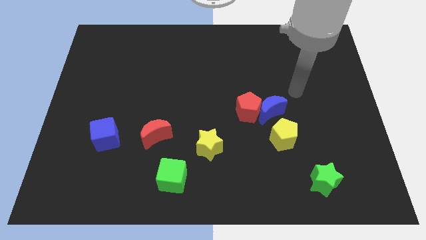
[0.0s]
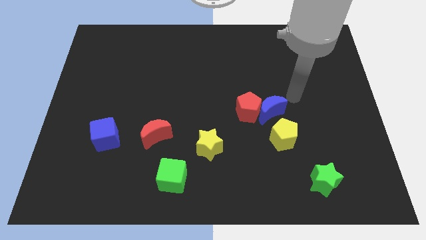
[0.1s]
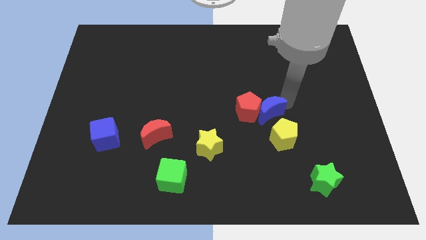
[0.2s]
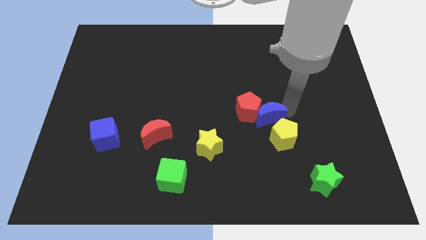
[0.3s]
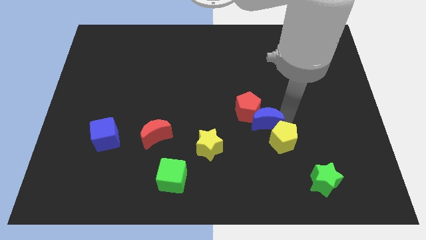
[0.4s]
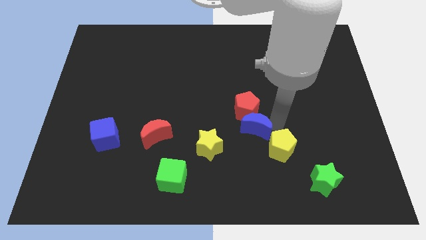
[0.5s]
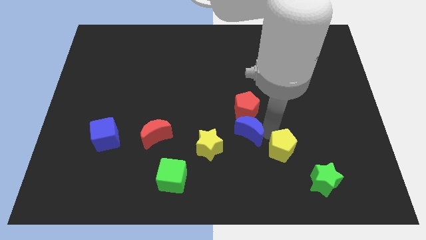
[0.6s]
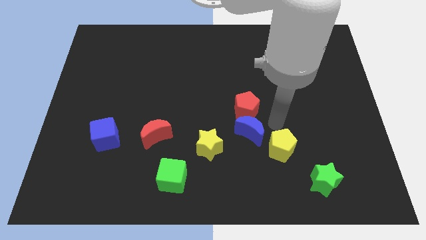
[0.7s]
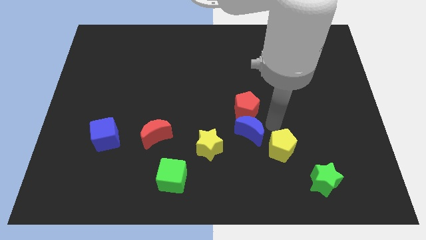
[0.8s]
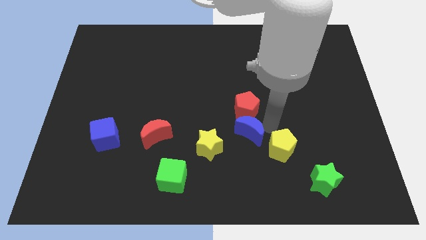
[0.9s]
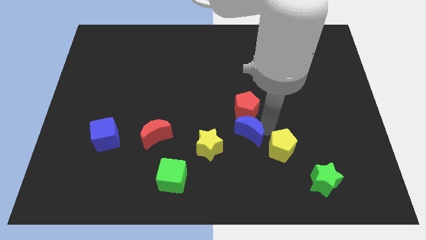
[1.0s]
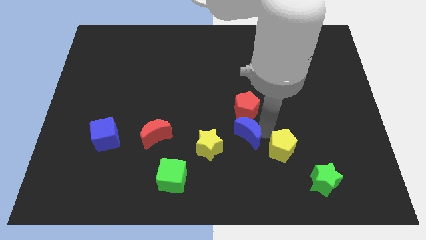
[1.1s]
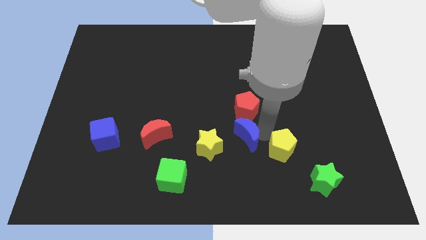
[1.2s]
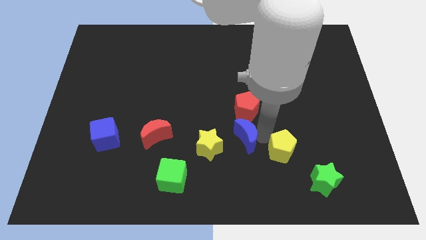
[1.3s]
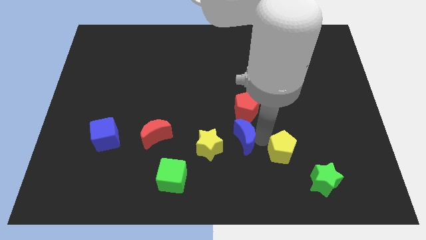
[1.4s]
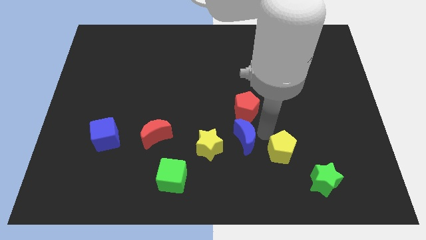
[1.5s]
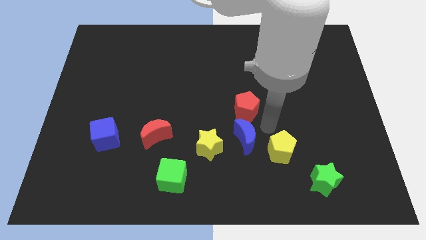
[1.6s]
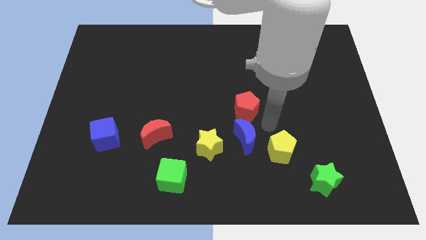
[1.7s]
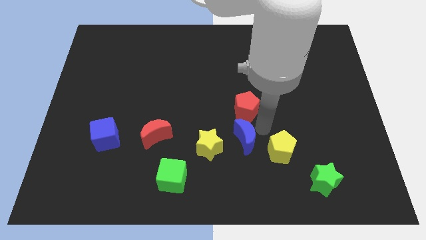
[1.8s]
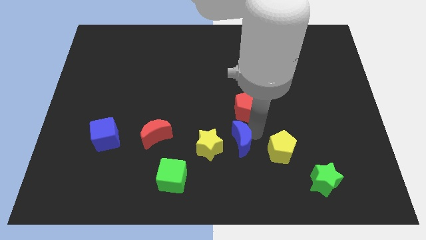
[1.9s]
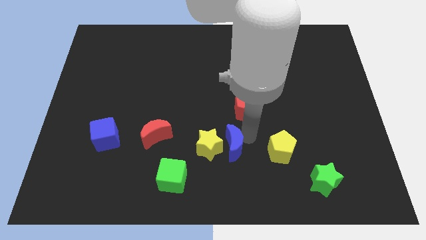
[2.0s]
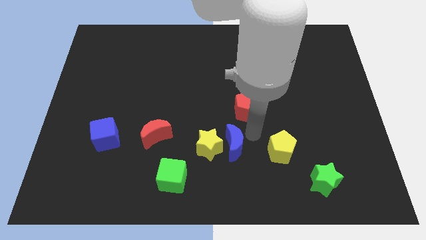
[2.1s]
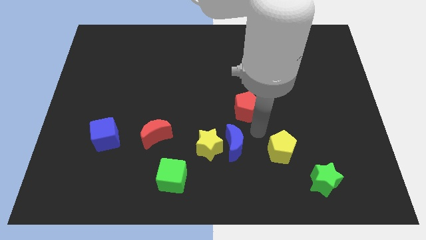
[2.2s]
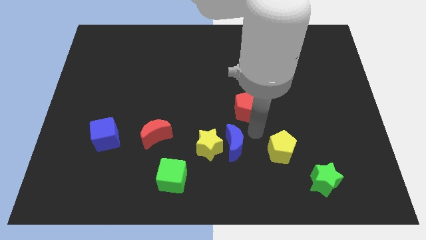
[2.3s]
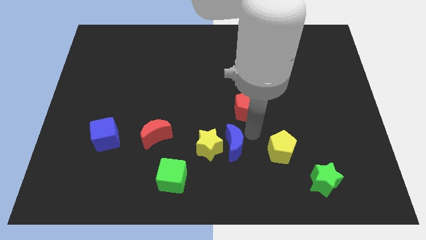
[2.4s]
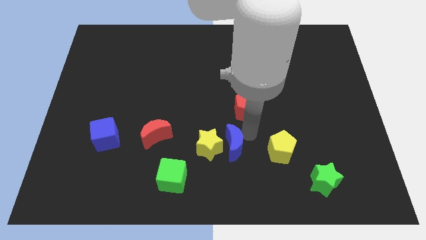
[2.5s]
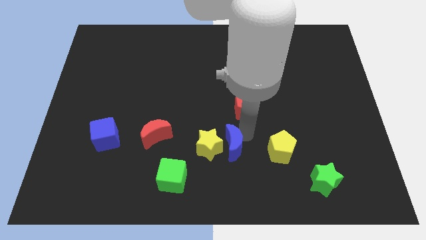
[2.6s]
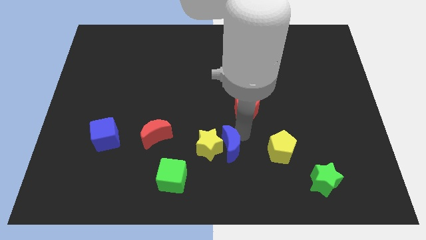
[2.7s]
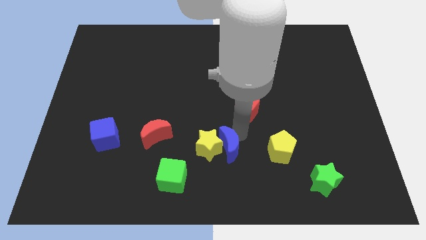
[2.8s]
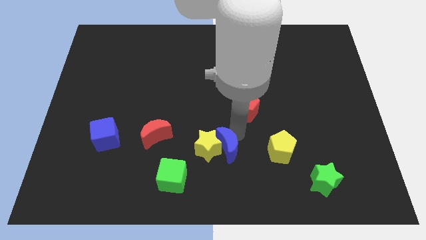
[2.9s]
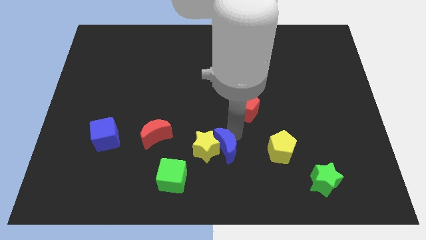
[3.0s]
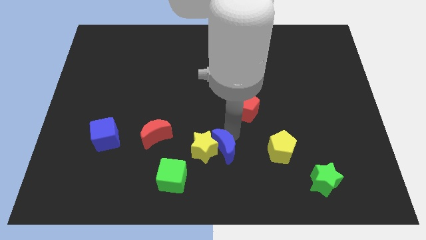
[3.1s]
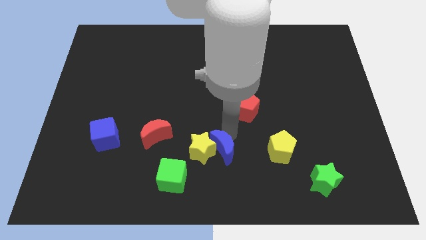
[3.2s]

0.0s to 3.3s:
separate the blue moon from the red pentagon and yellow pentagon

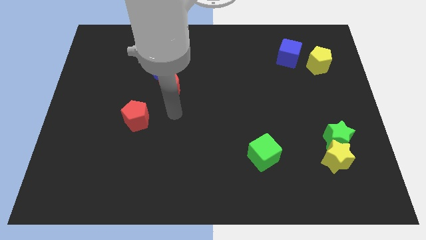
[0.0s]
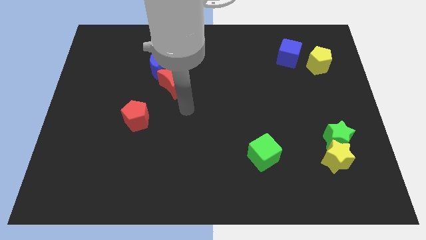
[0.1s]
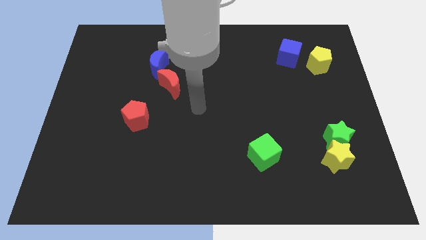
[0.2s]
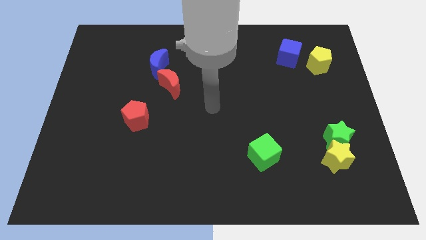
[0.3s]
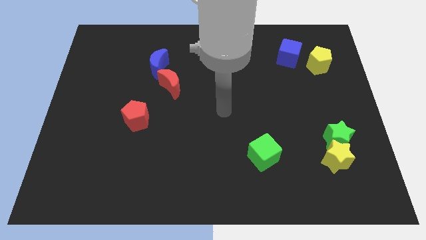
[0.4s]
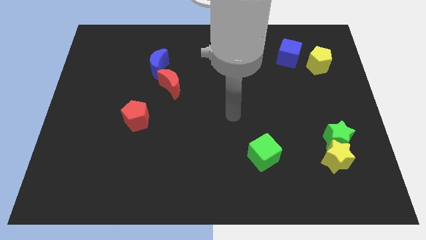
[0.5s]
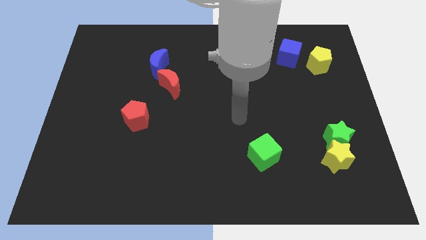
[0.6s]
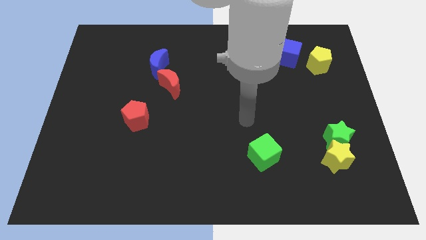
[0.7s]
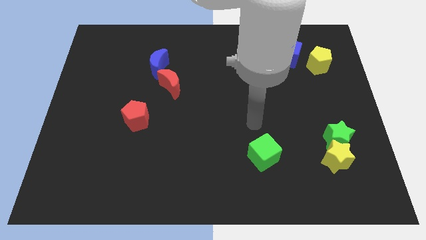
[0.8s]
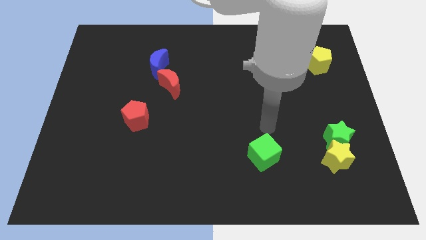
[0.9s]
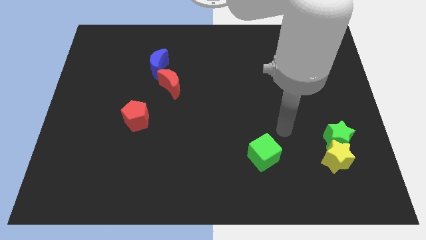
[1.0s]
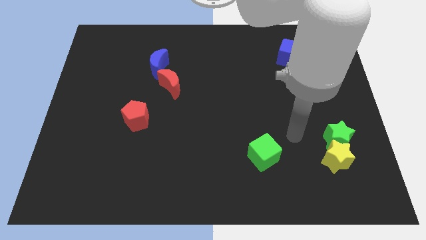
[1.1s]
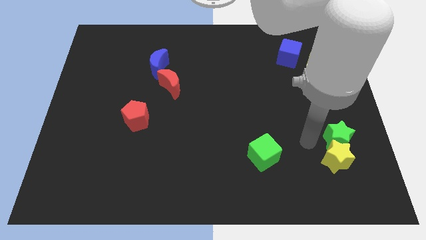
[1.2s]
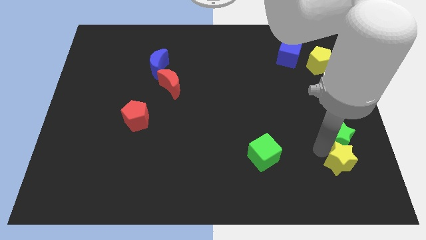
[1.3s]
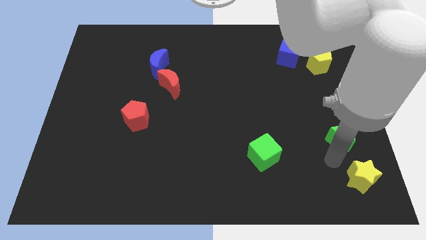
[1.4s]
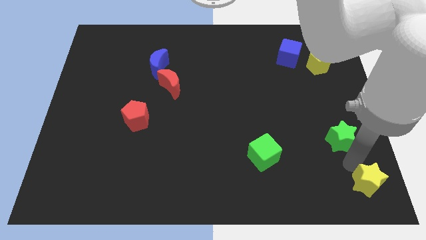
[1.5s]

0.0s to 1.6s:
move the green star away from the yellow star

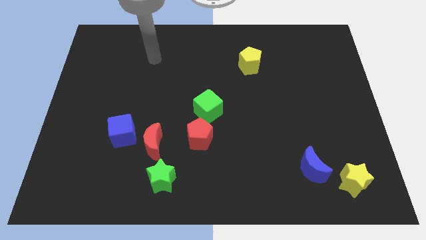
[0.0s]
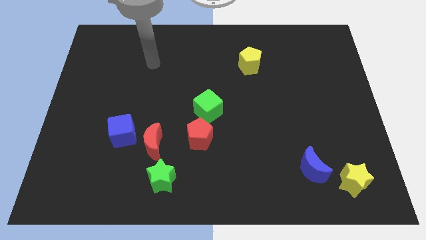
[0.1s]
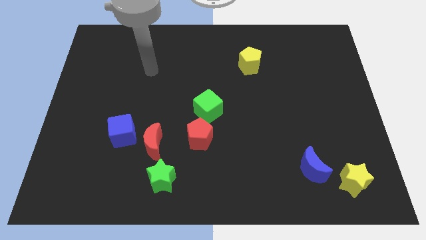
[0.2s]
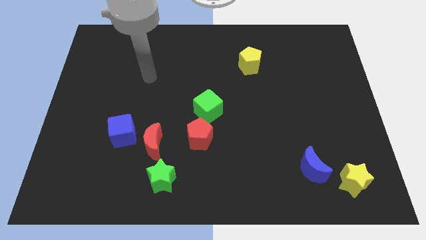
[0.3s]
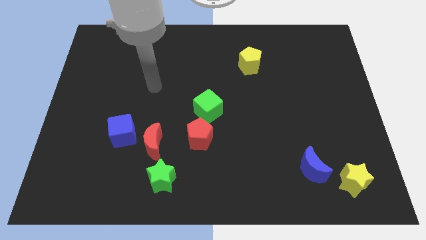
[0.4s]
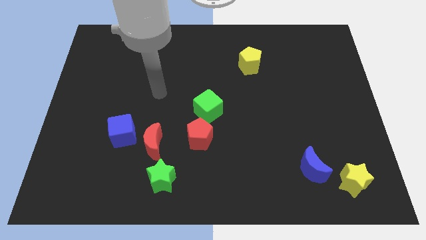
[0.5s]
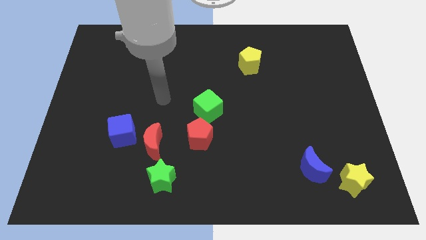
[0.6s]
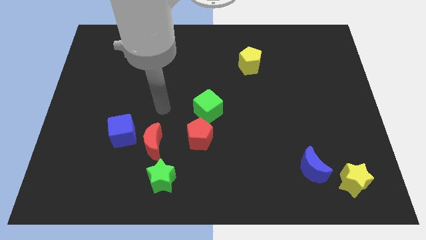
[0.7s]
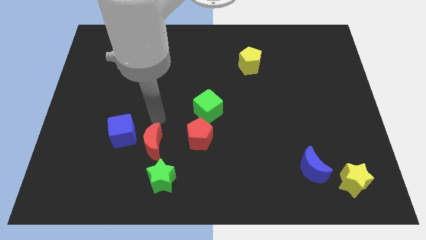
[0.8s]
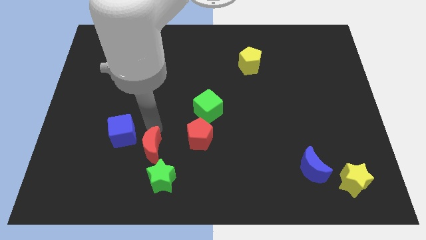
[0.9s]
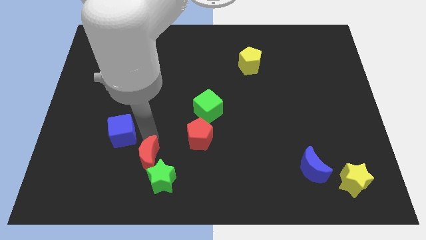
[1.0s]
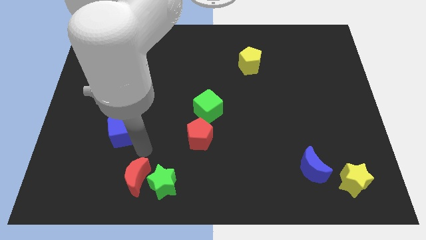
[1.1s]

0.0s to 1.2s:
pull the blue cube apart from the red moon

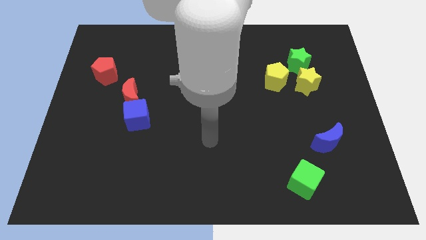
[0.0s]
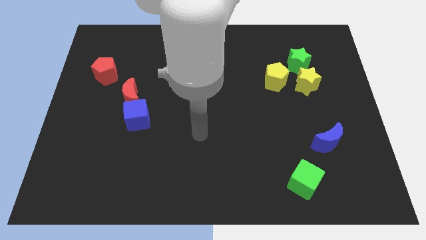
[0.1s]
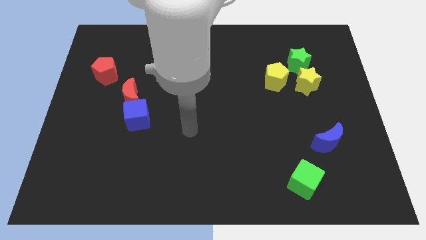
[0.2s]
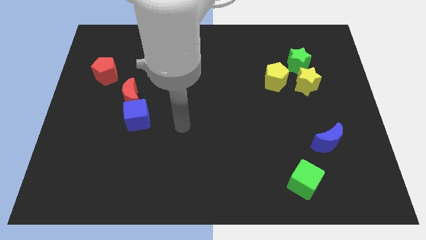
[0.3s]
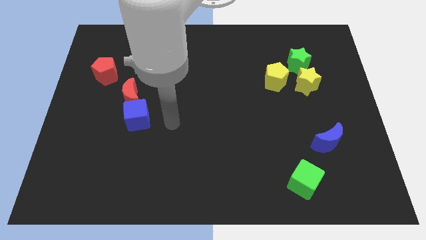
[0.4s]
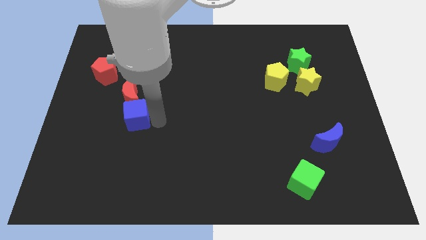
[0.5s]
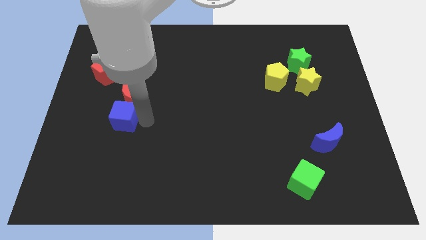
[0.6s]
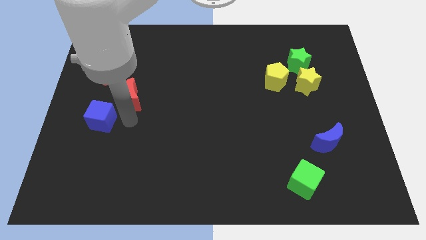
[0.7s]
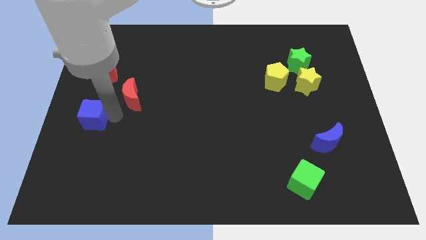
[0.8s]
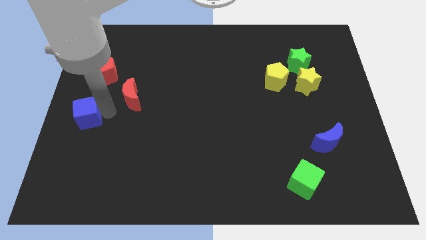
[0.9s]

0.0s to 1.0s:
pull the red moon apart from the blue cube

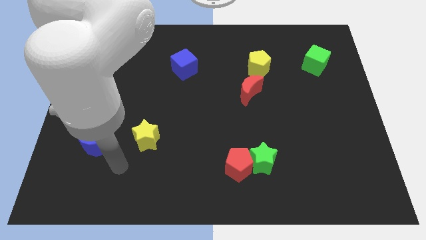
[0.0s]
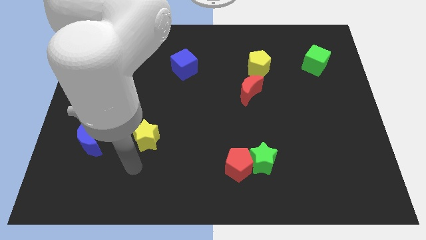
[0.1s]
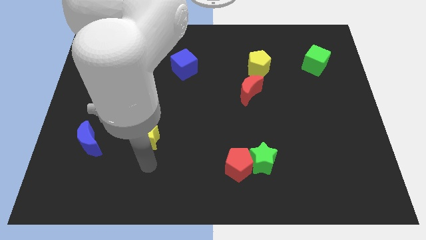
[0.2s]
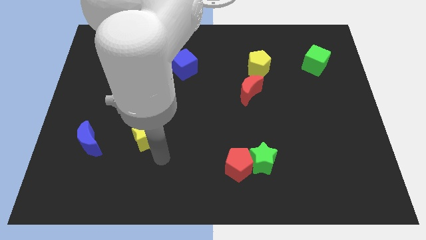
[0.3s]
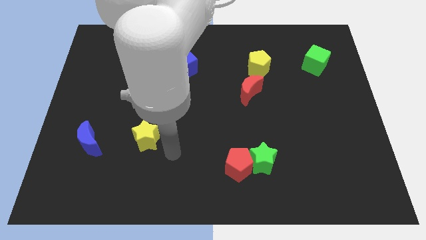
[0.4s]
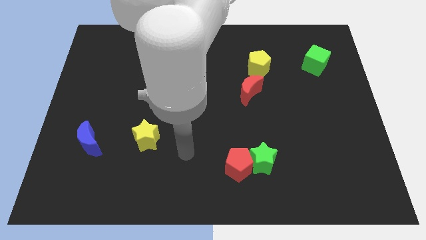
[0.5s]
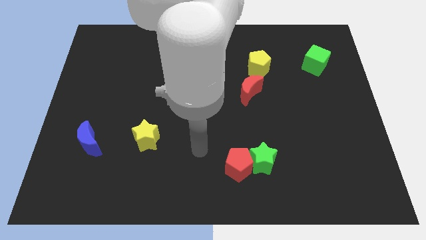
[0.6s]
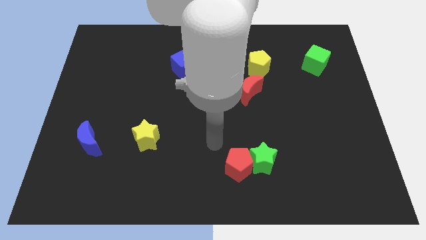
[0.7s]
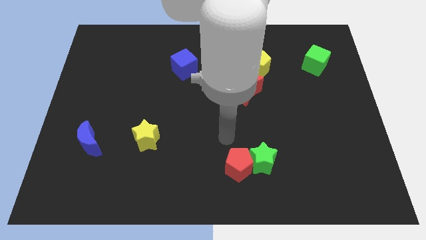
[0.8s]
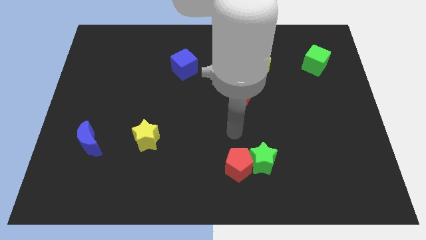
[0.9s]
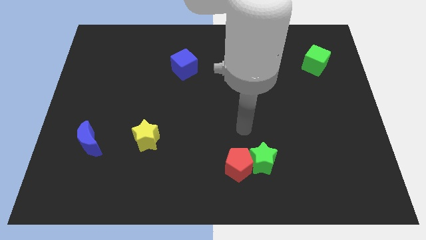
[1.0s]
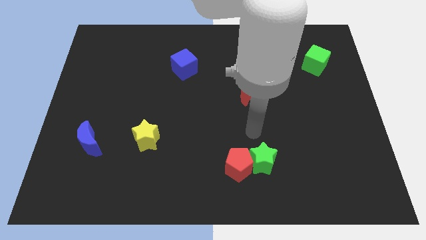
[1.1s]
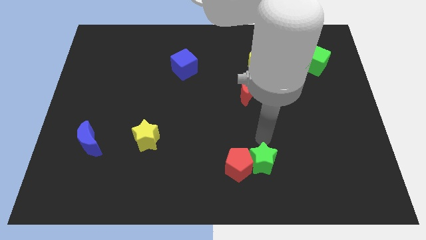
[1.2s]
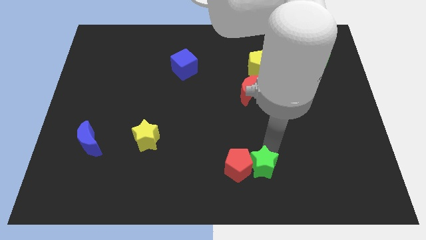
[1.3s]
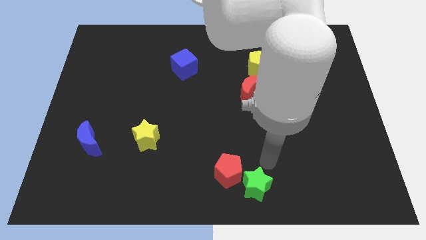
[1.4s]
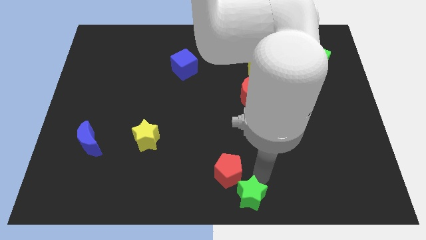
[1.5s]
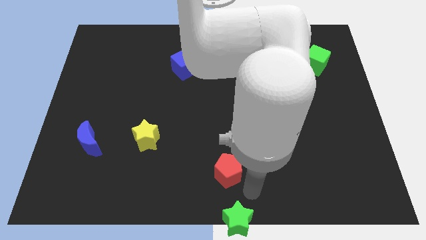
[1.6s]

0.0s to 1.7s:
pull the red pentagon apart from the green star

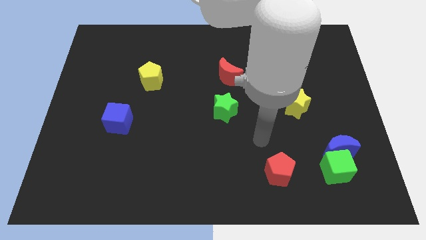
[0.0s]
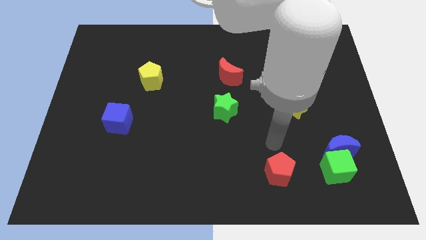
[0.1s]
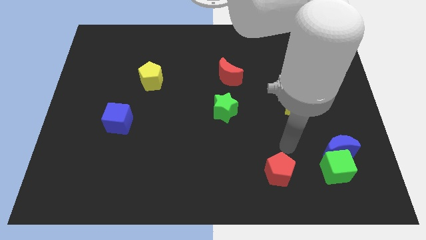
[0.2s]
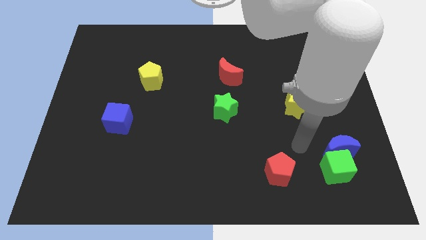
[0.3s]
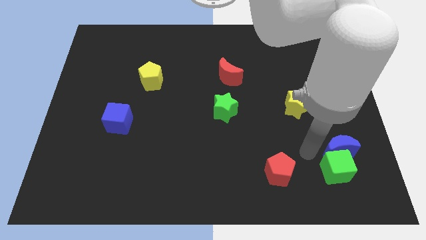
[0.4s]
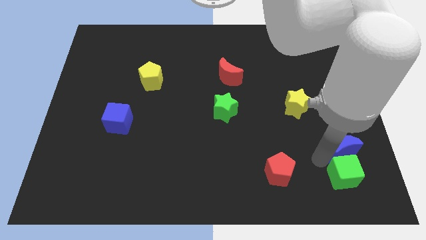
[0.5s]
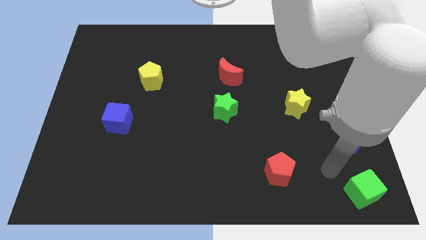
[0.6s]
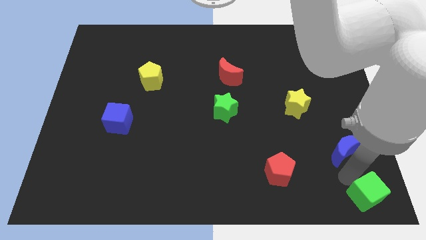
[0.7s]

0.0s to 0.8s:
pull the blue moon apart from the green cube
